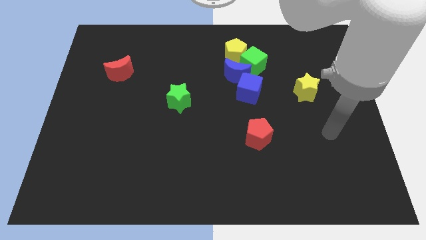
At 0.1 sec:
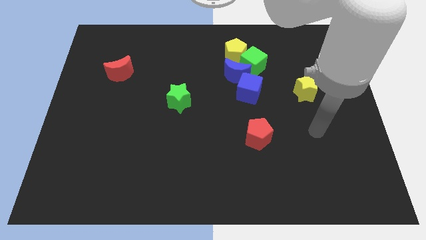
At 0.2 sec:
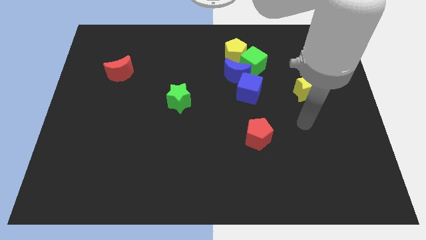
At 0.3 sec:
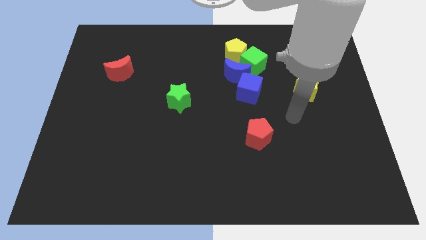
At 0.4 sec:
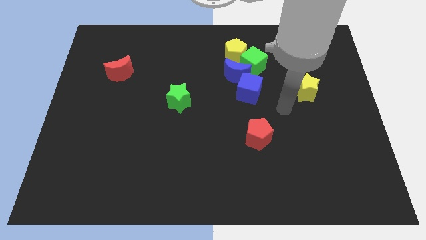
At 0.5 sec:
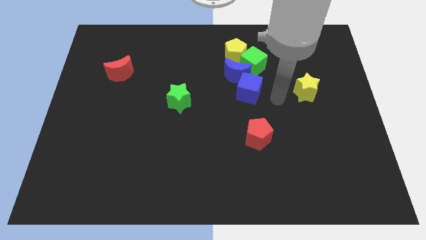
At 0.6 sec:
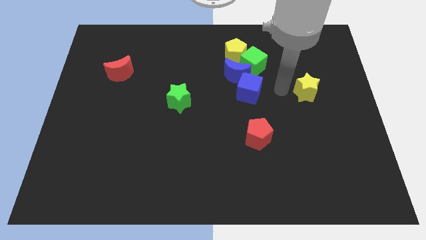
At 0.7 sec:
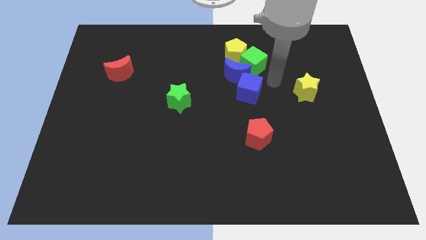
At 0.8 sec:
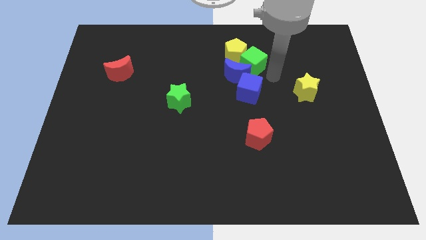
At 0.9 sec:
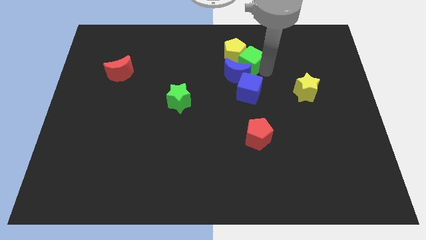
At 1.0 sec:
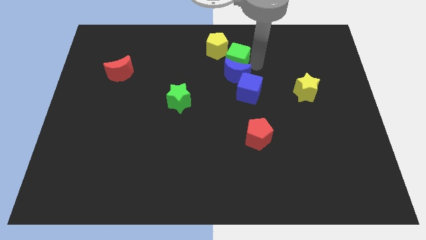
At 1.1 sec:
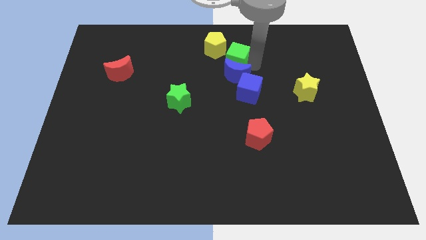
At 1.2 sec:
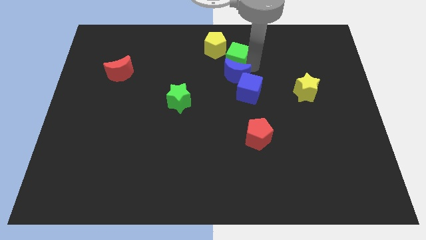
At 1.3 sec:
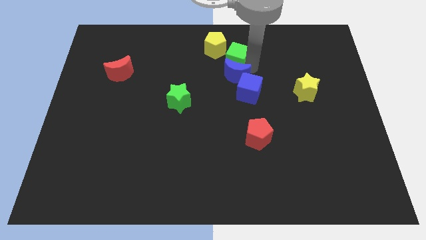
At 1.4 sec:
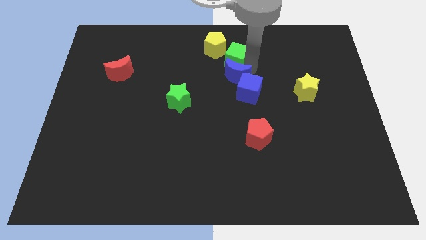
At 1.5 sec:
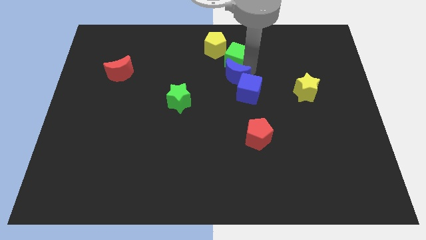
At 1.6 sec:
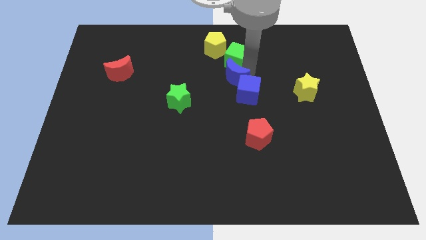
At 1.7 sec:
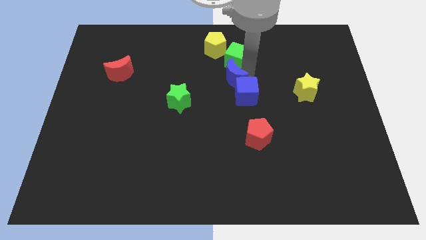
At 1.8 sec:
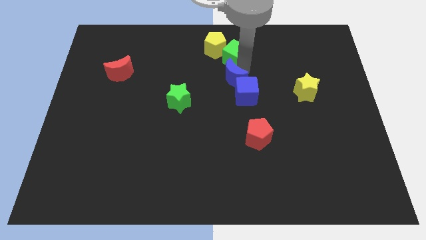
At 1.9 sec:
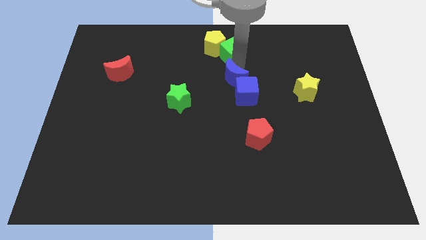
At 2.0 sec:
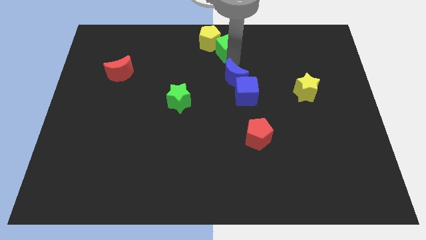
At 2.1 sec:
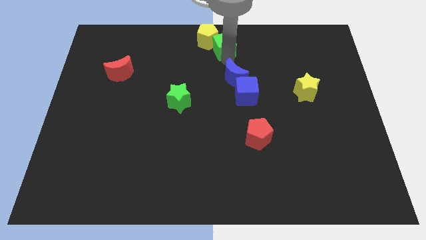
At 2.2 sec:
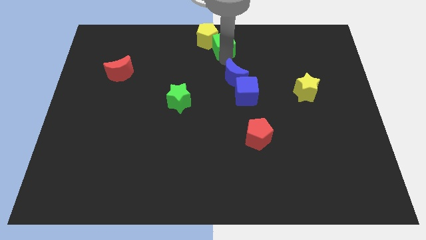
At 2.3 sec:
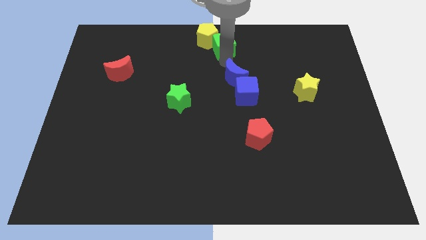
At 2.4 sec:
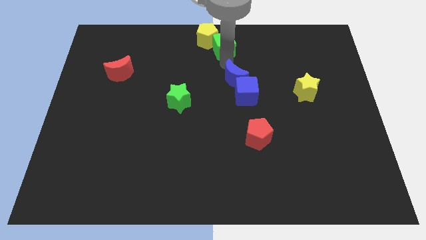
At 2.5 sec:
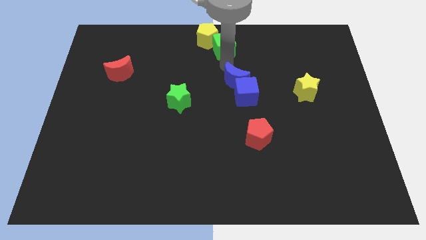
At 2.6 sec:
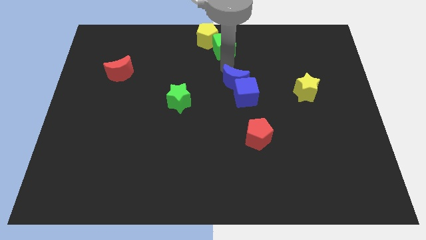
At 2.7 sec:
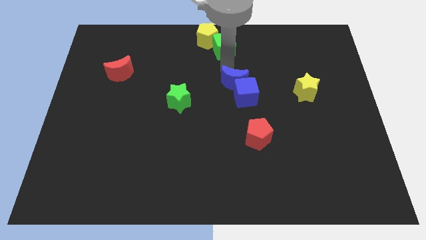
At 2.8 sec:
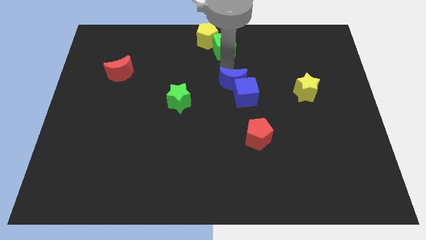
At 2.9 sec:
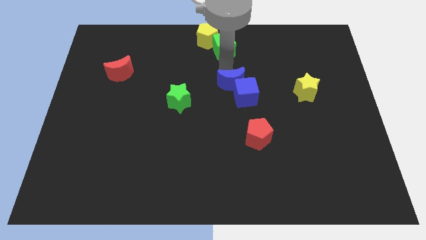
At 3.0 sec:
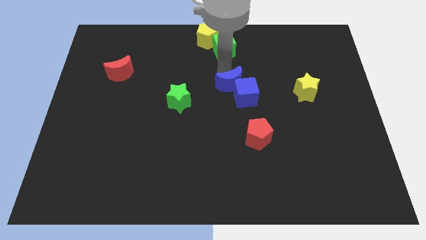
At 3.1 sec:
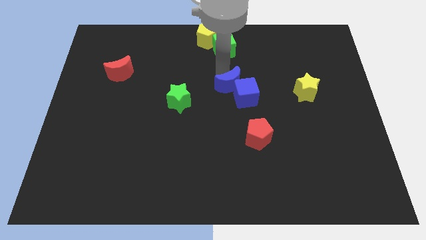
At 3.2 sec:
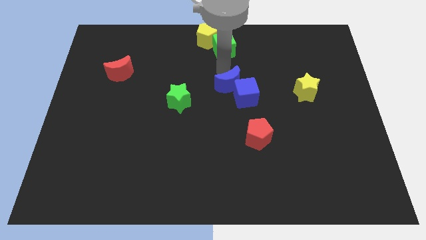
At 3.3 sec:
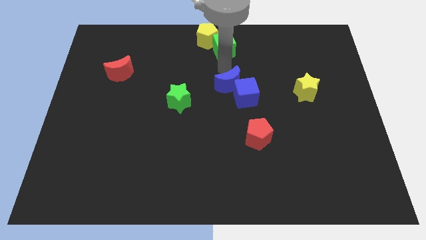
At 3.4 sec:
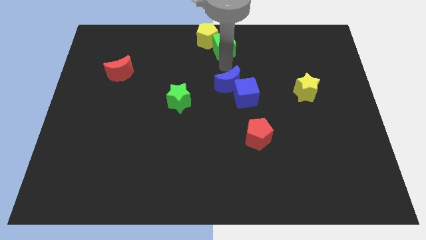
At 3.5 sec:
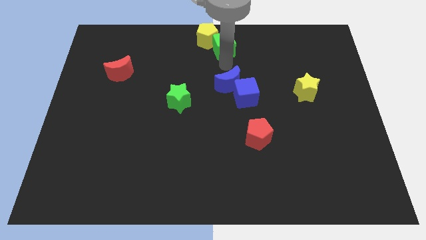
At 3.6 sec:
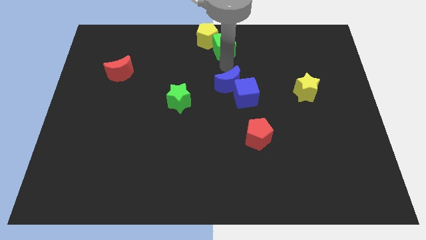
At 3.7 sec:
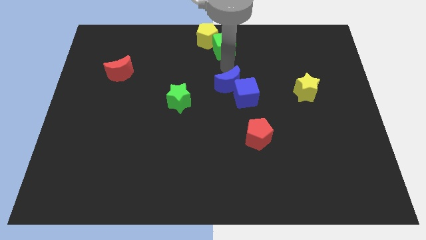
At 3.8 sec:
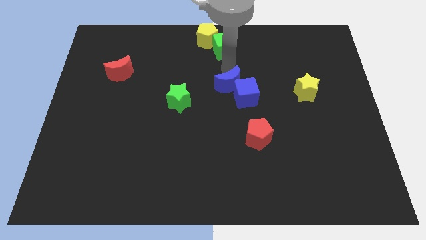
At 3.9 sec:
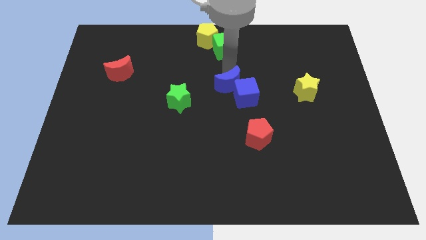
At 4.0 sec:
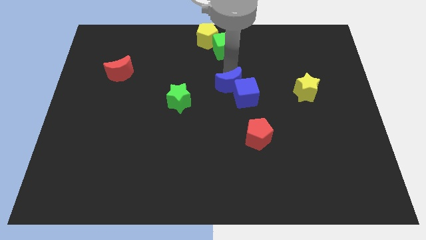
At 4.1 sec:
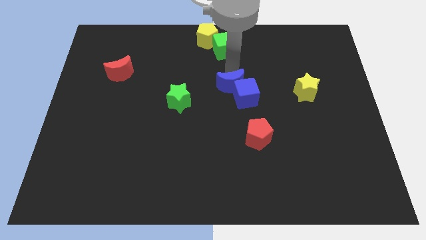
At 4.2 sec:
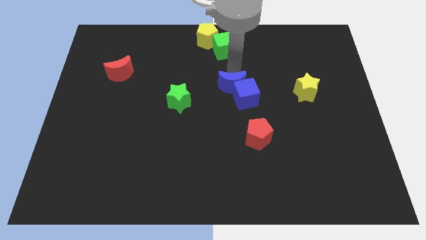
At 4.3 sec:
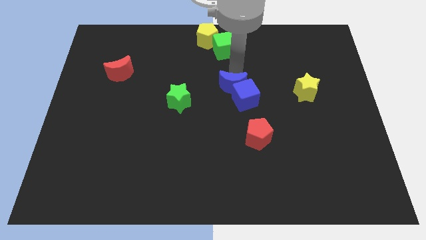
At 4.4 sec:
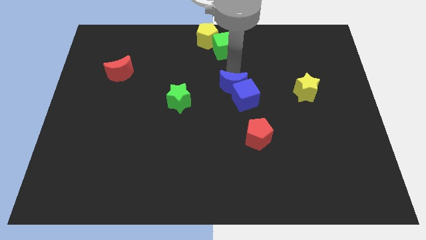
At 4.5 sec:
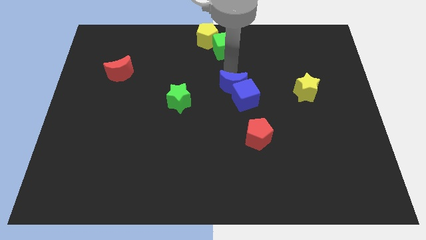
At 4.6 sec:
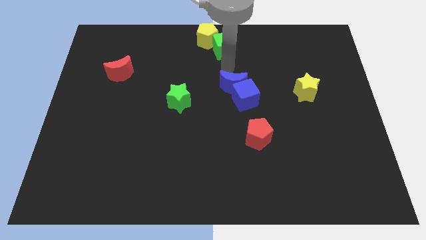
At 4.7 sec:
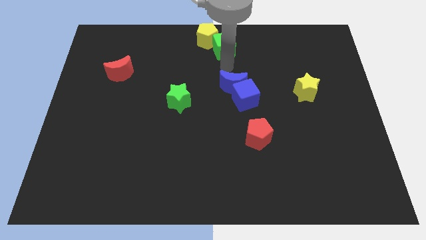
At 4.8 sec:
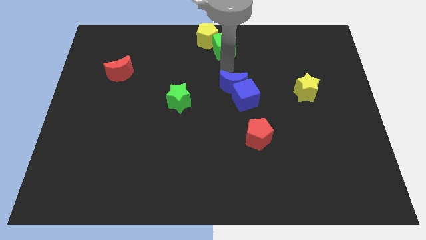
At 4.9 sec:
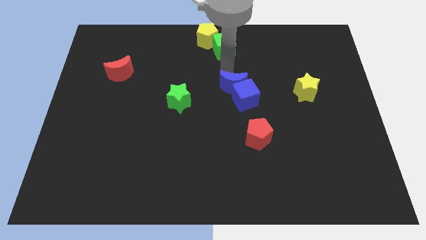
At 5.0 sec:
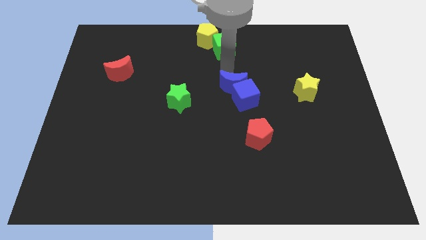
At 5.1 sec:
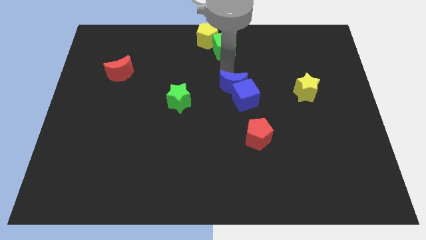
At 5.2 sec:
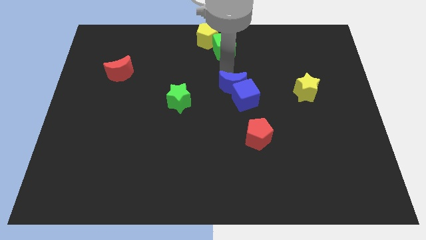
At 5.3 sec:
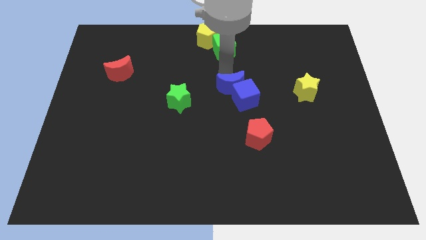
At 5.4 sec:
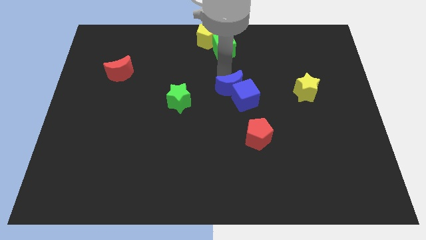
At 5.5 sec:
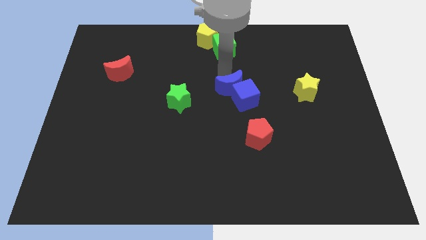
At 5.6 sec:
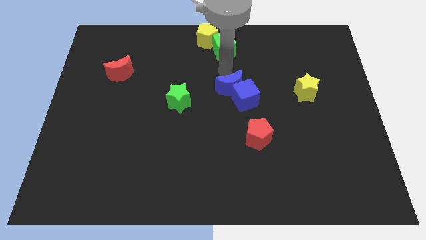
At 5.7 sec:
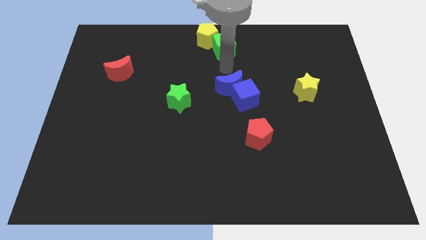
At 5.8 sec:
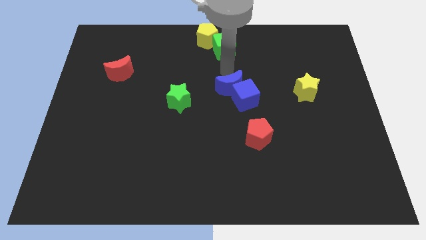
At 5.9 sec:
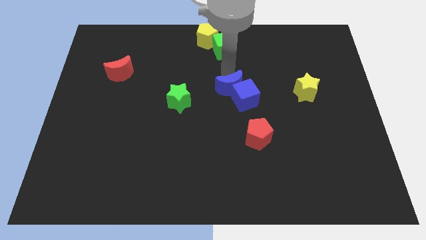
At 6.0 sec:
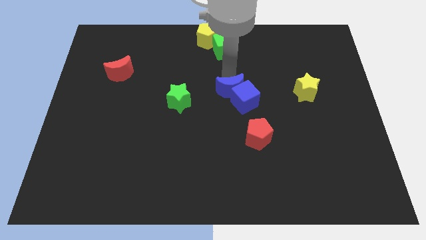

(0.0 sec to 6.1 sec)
move the blue moon away from the green cube, blue cube, and yellow pentagon

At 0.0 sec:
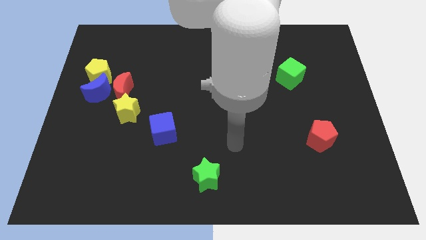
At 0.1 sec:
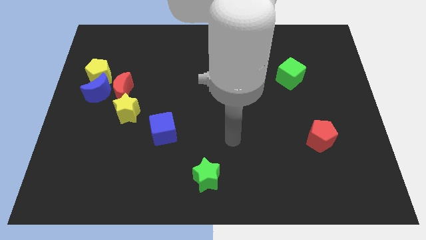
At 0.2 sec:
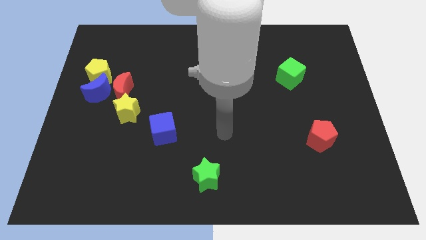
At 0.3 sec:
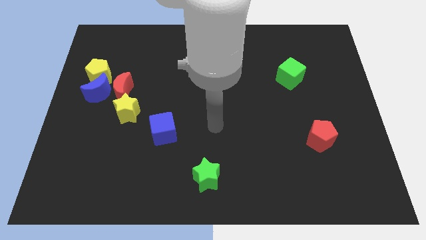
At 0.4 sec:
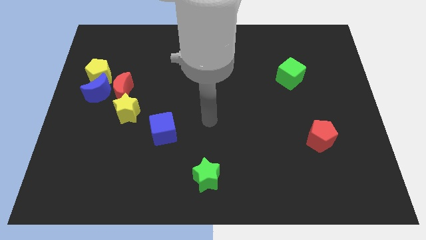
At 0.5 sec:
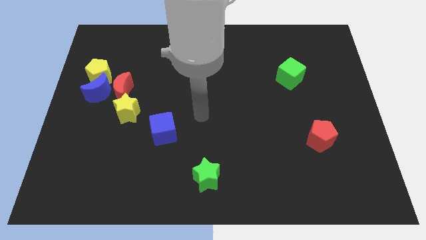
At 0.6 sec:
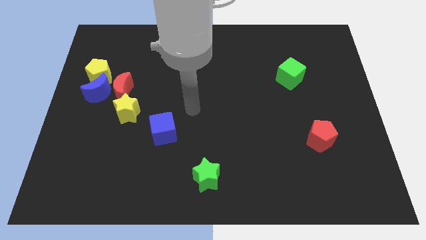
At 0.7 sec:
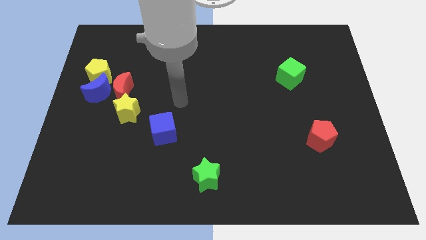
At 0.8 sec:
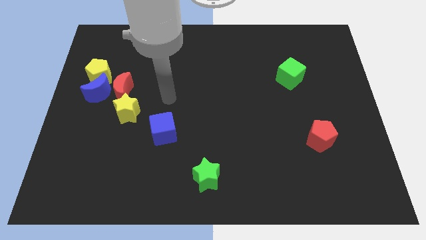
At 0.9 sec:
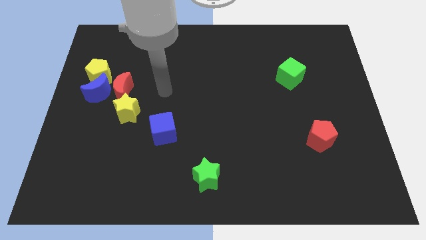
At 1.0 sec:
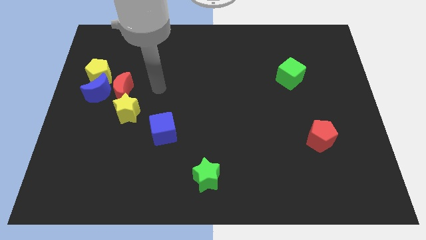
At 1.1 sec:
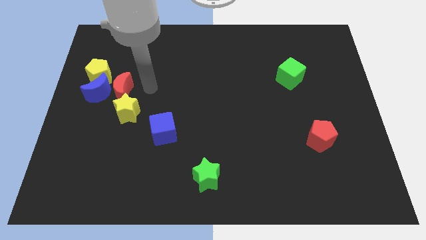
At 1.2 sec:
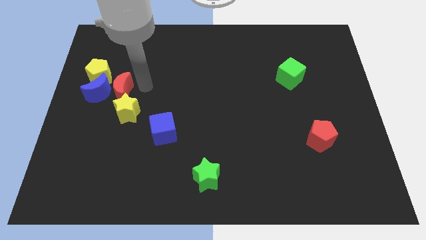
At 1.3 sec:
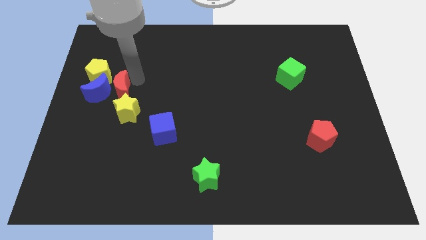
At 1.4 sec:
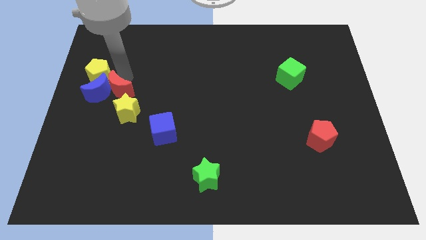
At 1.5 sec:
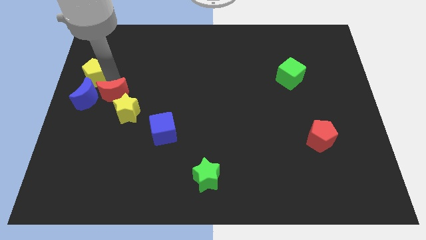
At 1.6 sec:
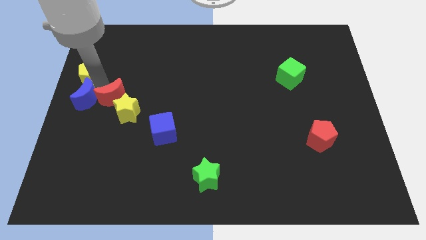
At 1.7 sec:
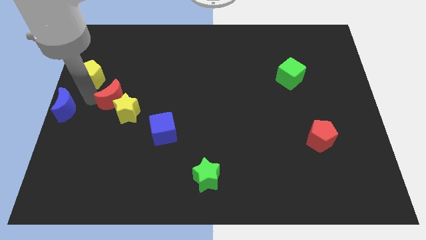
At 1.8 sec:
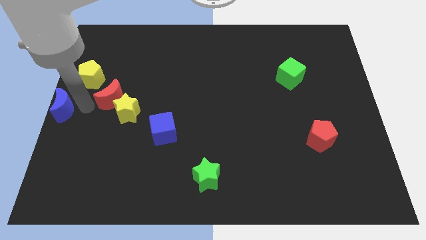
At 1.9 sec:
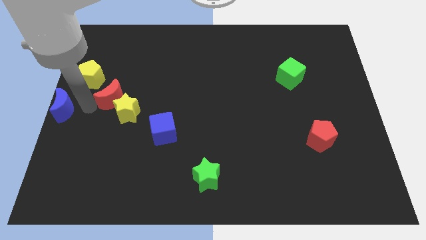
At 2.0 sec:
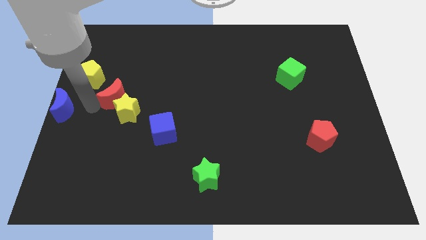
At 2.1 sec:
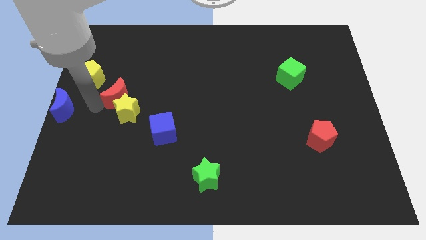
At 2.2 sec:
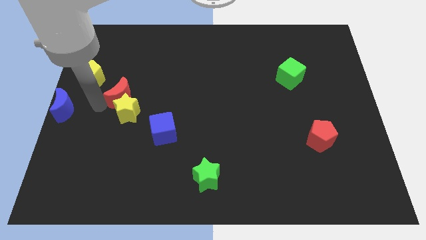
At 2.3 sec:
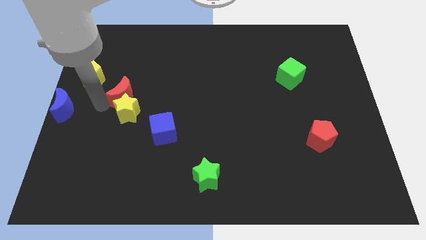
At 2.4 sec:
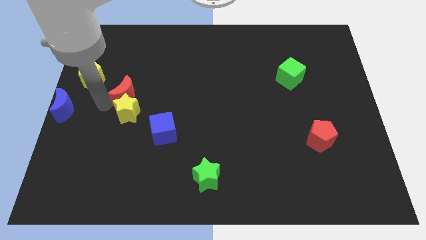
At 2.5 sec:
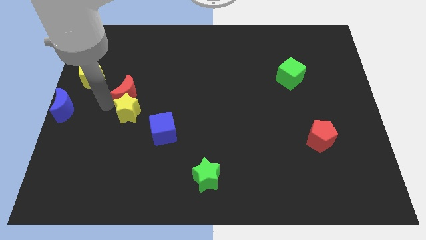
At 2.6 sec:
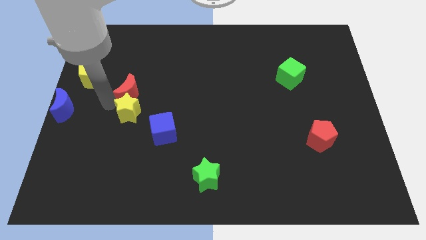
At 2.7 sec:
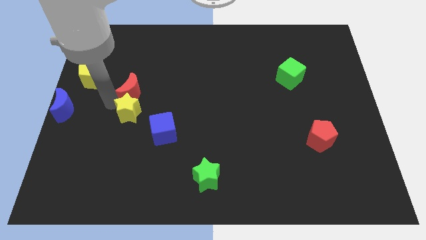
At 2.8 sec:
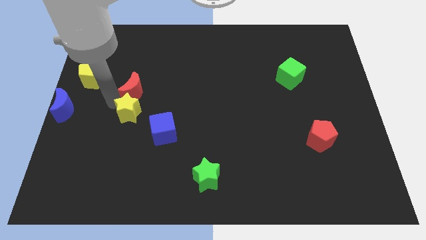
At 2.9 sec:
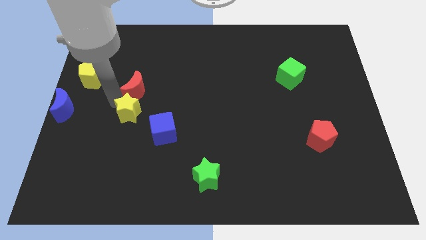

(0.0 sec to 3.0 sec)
separate the red moon from the blue moon, yellow star, and yellow pentagon

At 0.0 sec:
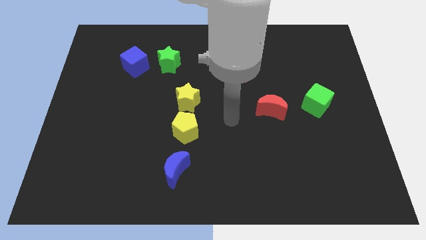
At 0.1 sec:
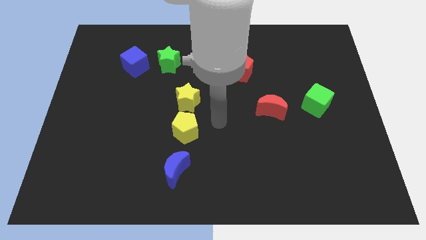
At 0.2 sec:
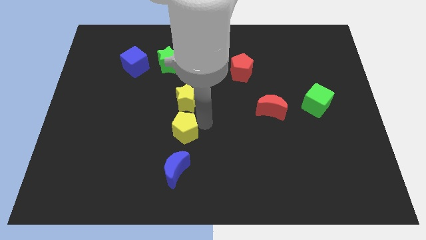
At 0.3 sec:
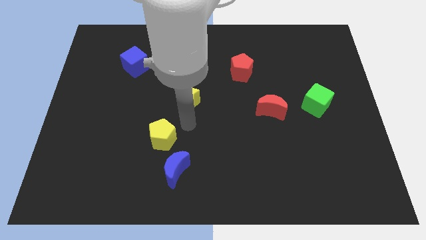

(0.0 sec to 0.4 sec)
move the yellow star away from the yellow pentagon
